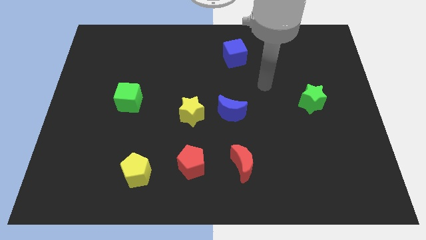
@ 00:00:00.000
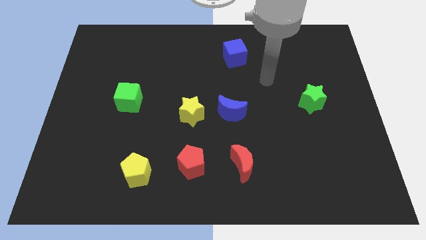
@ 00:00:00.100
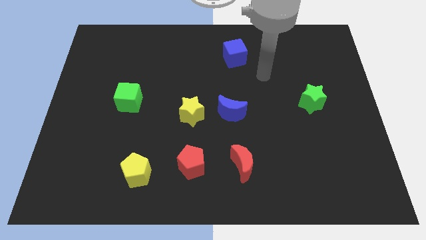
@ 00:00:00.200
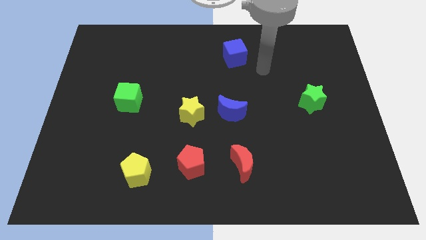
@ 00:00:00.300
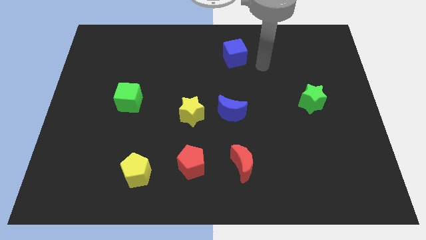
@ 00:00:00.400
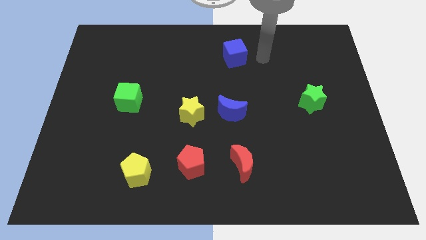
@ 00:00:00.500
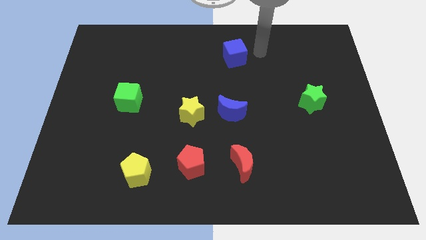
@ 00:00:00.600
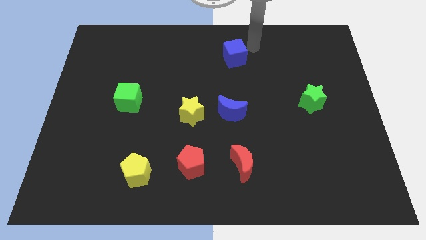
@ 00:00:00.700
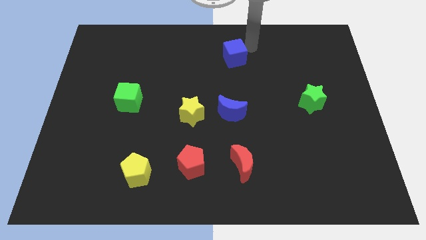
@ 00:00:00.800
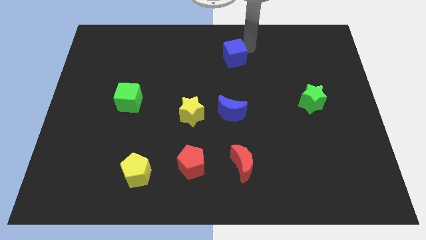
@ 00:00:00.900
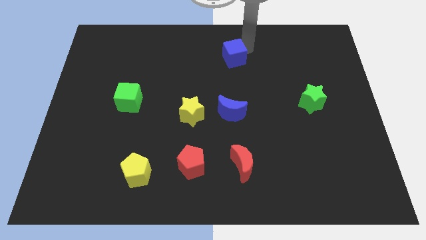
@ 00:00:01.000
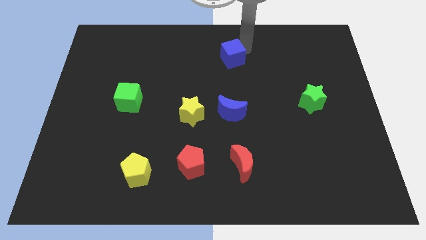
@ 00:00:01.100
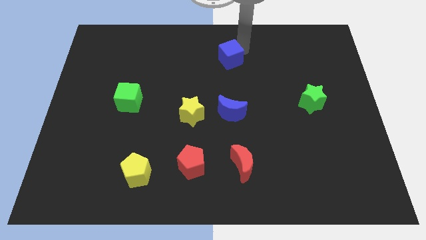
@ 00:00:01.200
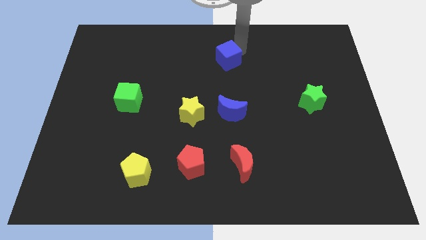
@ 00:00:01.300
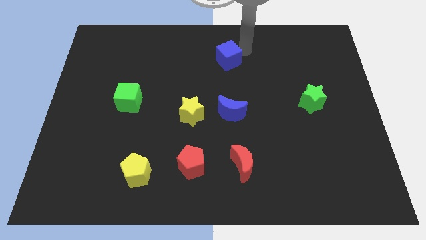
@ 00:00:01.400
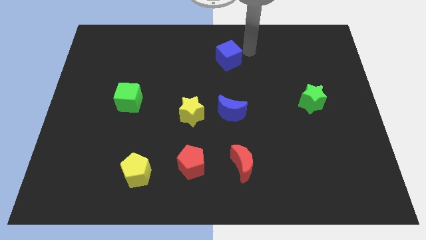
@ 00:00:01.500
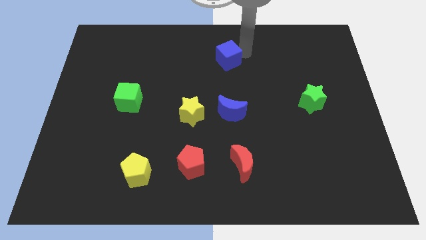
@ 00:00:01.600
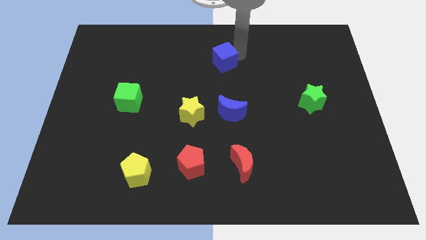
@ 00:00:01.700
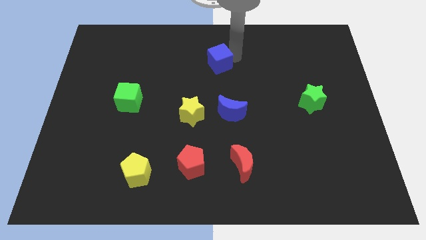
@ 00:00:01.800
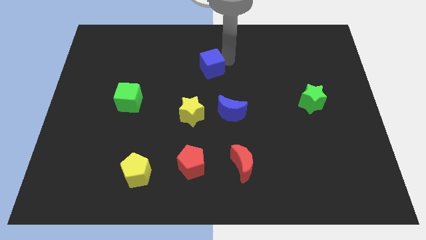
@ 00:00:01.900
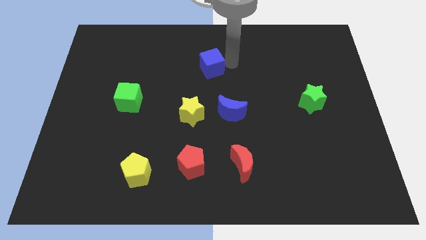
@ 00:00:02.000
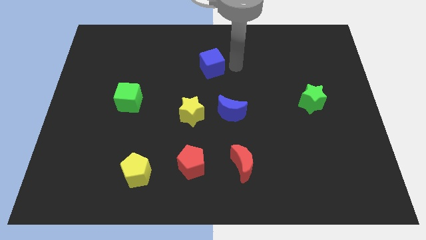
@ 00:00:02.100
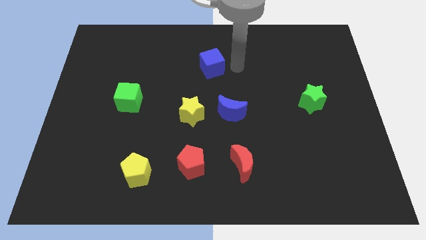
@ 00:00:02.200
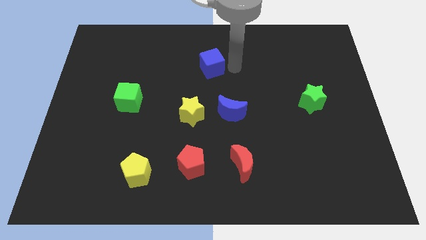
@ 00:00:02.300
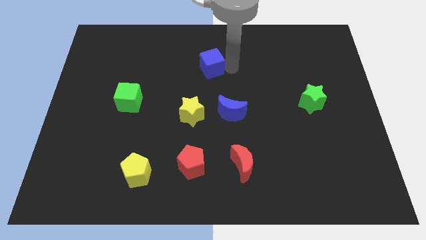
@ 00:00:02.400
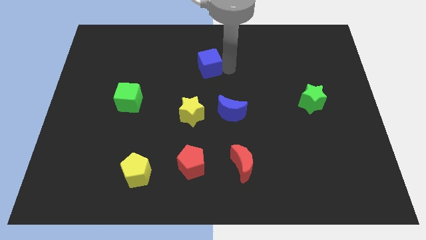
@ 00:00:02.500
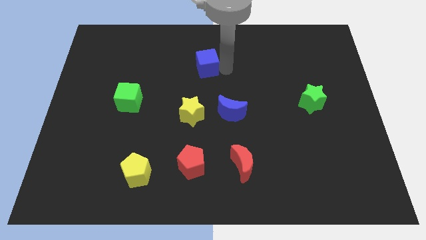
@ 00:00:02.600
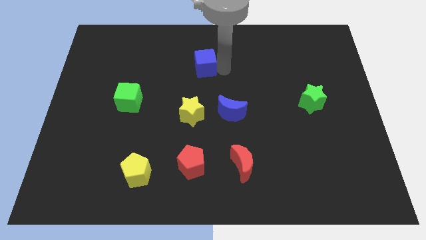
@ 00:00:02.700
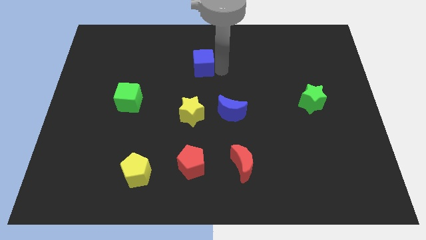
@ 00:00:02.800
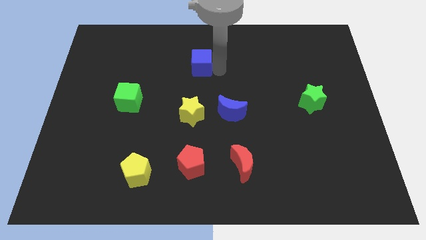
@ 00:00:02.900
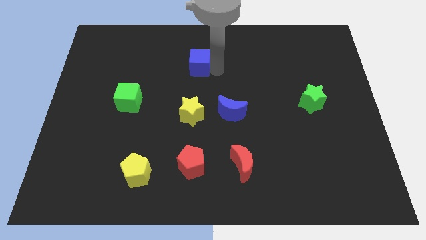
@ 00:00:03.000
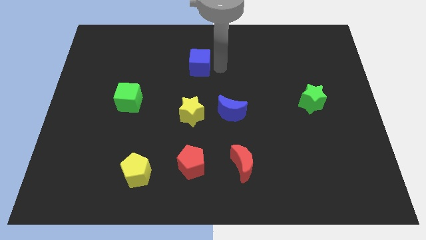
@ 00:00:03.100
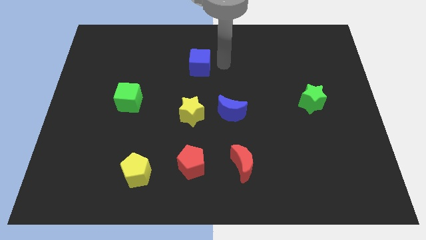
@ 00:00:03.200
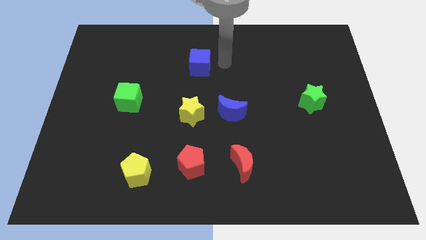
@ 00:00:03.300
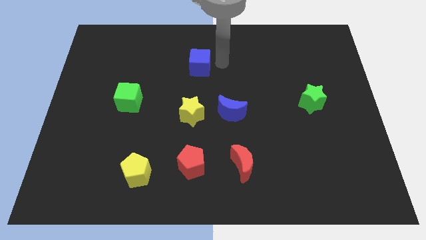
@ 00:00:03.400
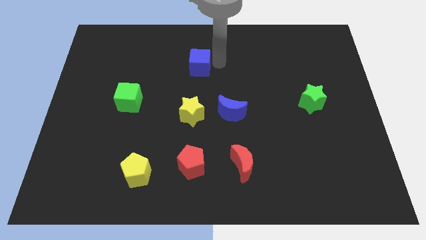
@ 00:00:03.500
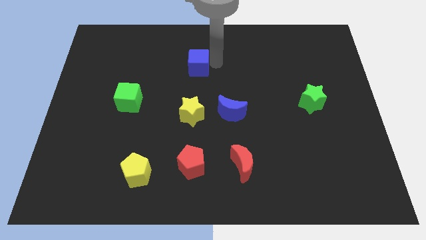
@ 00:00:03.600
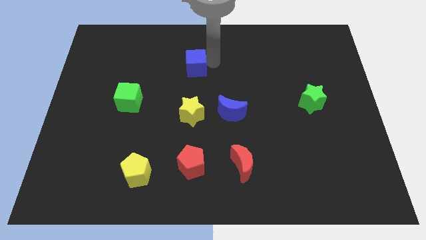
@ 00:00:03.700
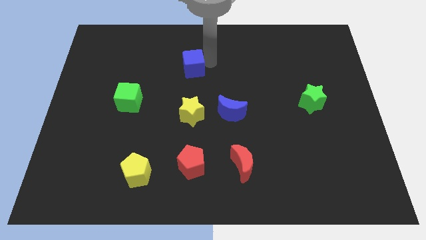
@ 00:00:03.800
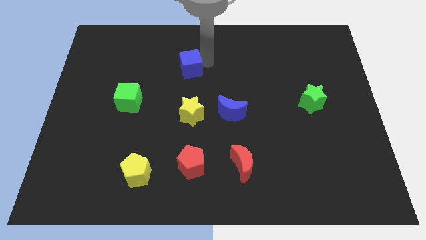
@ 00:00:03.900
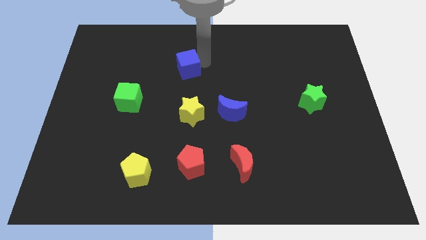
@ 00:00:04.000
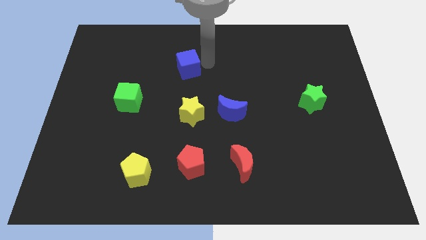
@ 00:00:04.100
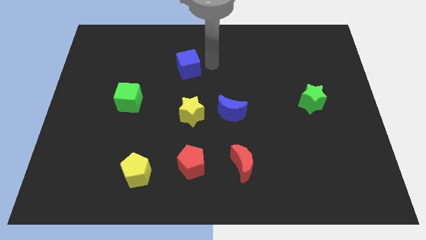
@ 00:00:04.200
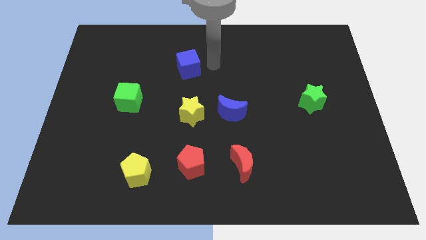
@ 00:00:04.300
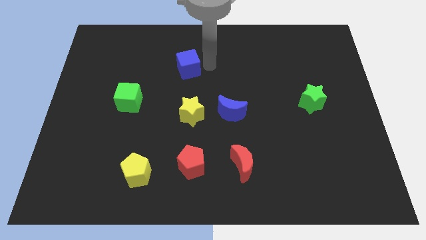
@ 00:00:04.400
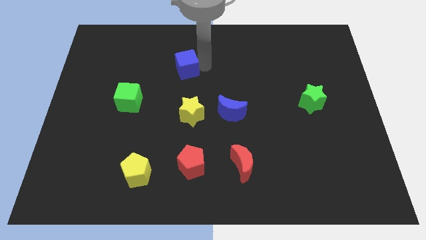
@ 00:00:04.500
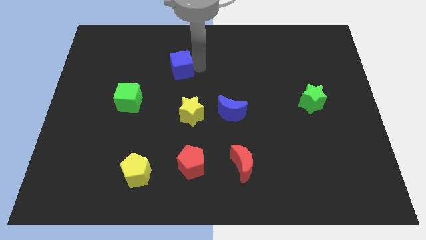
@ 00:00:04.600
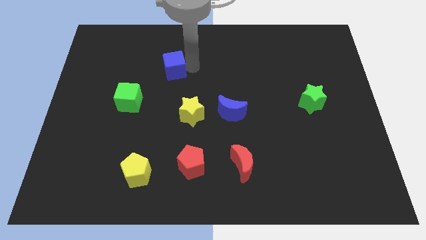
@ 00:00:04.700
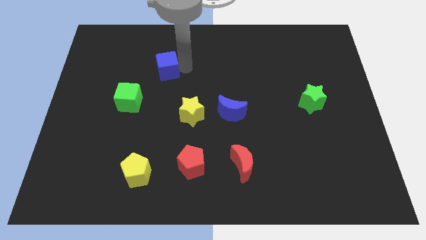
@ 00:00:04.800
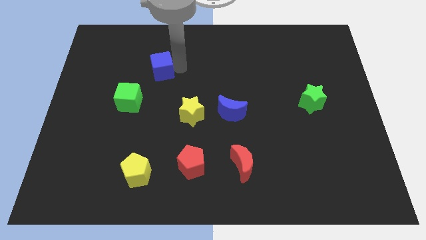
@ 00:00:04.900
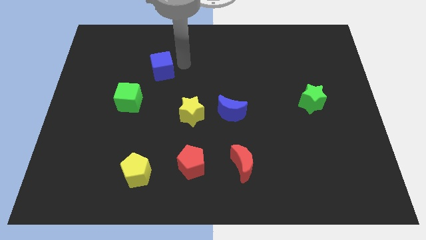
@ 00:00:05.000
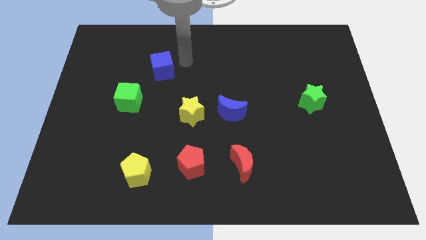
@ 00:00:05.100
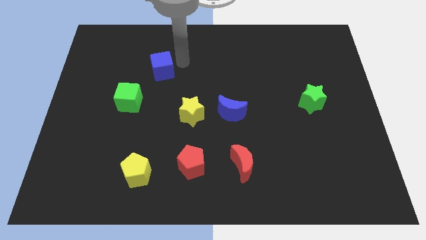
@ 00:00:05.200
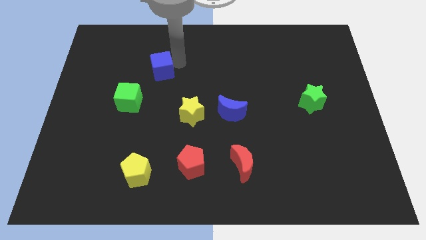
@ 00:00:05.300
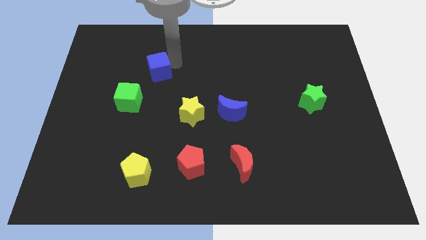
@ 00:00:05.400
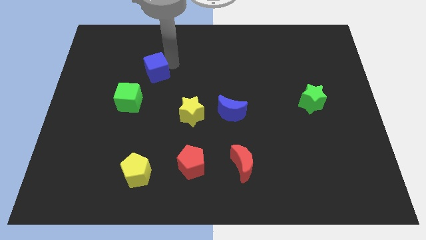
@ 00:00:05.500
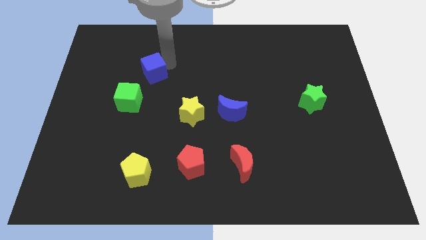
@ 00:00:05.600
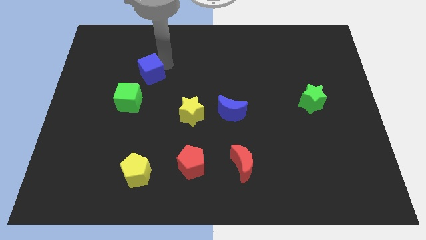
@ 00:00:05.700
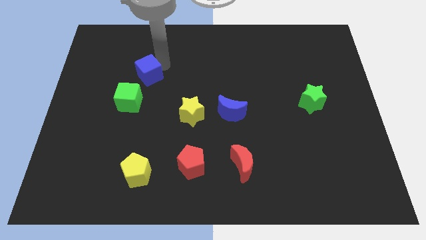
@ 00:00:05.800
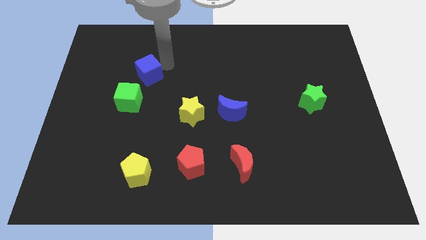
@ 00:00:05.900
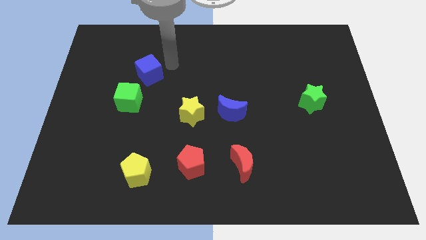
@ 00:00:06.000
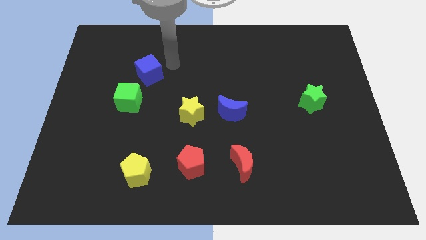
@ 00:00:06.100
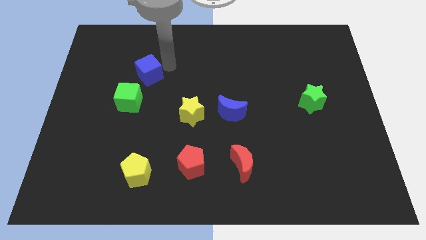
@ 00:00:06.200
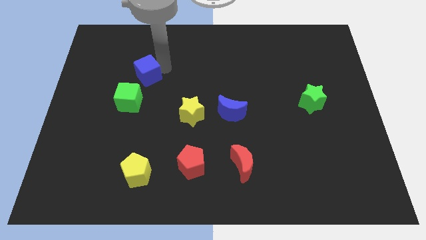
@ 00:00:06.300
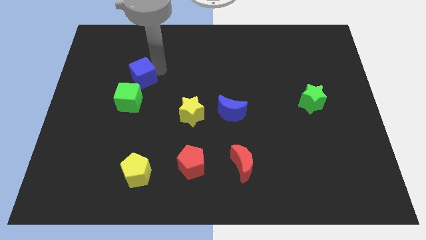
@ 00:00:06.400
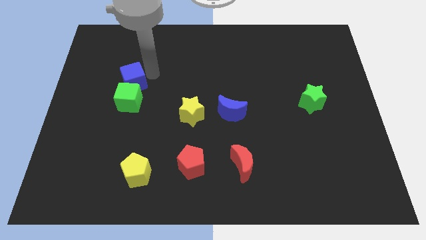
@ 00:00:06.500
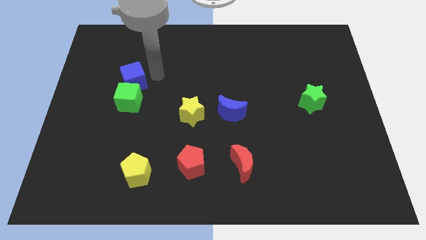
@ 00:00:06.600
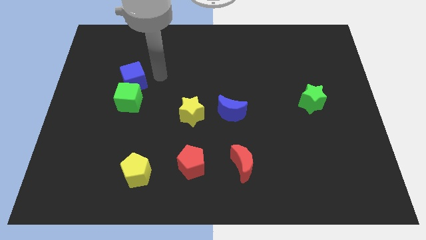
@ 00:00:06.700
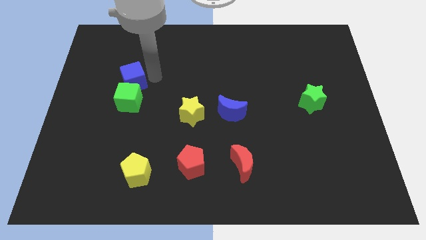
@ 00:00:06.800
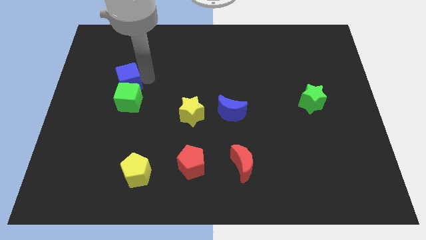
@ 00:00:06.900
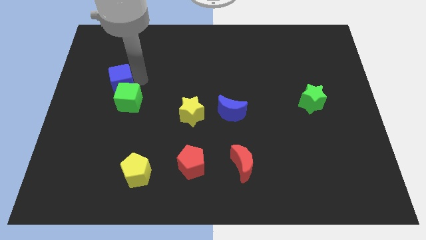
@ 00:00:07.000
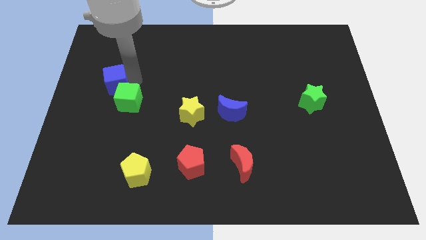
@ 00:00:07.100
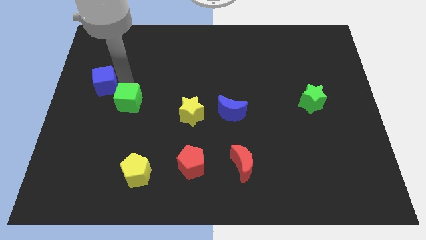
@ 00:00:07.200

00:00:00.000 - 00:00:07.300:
move the blue cube to the center left

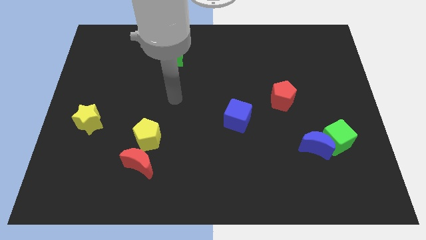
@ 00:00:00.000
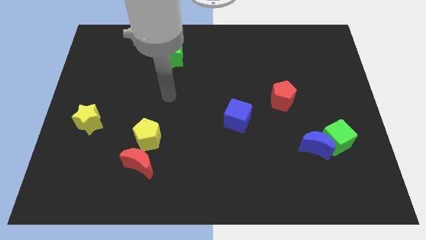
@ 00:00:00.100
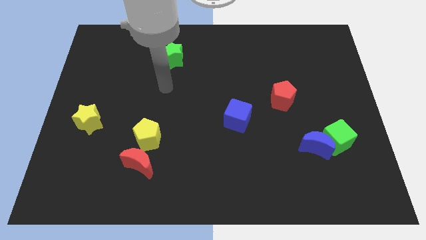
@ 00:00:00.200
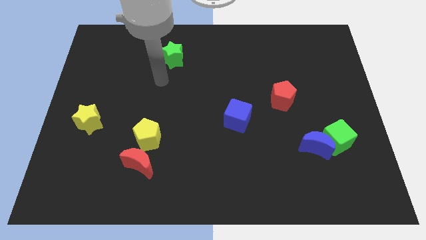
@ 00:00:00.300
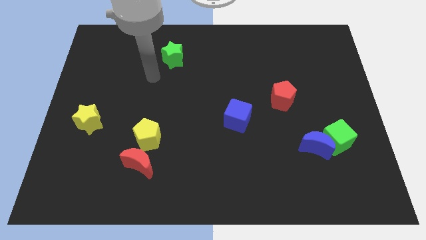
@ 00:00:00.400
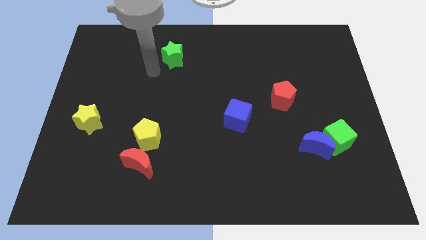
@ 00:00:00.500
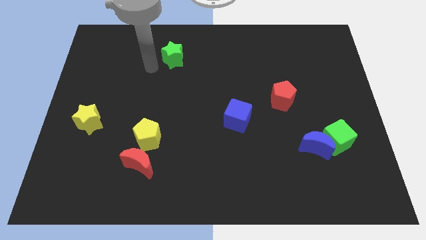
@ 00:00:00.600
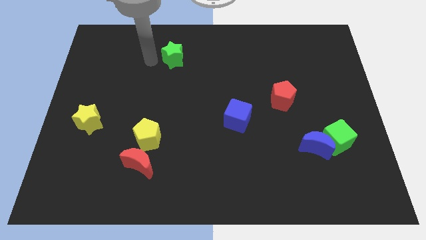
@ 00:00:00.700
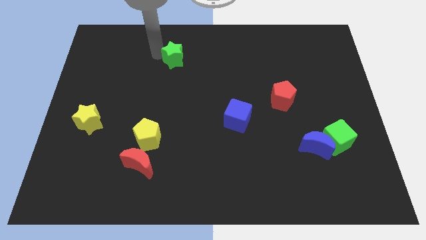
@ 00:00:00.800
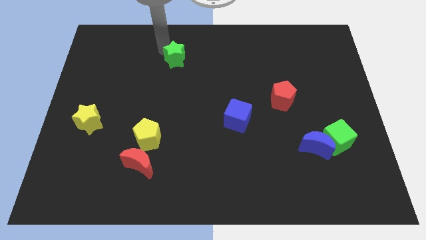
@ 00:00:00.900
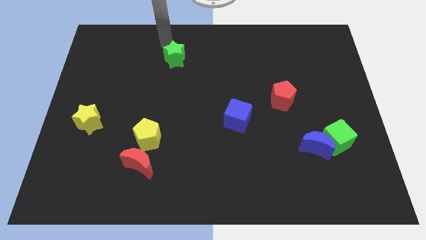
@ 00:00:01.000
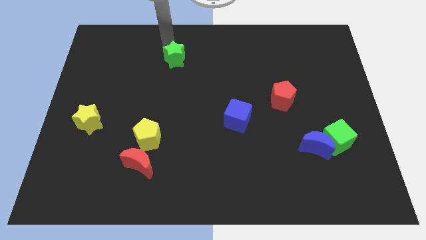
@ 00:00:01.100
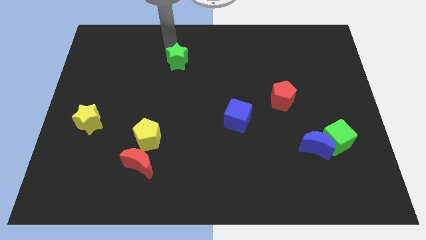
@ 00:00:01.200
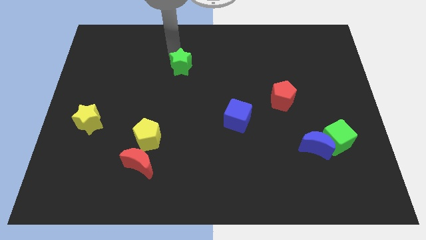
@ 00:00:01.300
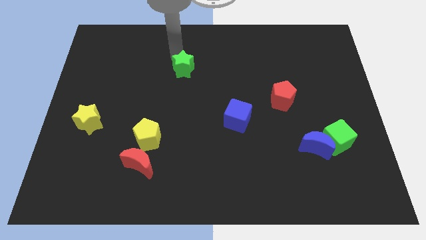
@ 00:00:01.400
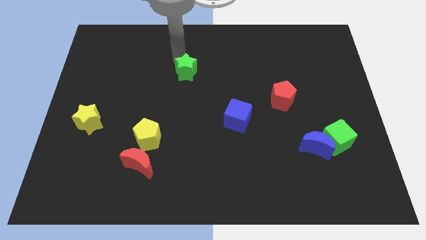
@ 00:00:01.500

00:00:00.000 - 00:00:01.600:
slide the green star to the center
